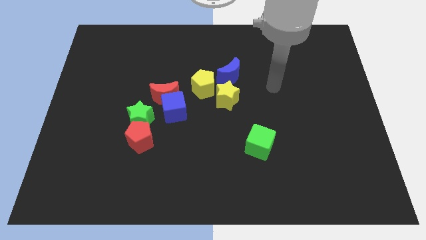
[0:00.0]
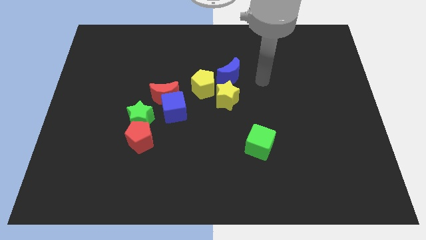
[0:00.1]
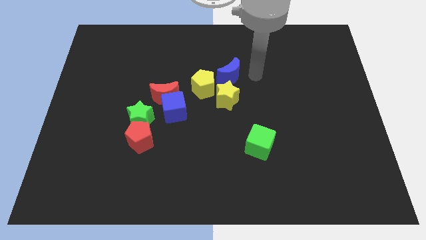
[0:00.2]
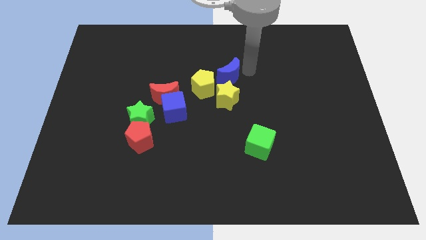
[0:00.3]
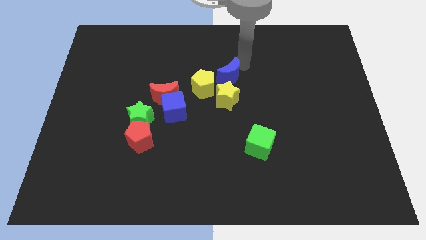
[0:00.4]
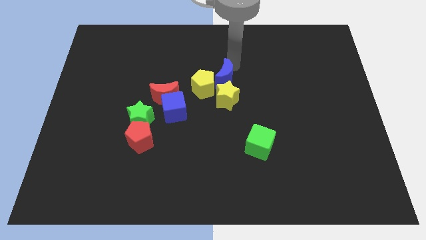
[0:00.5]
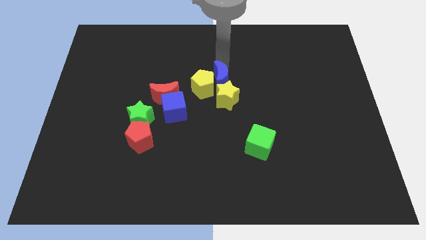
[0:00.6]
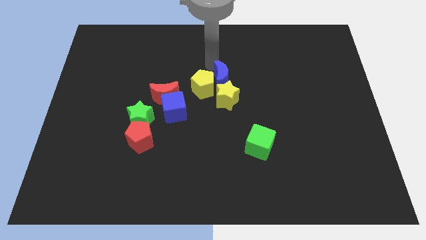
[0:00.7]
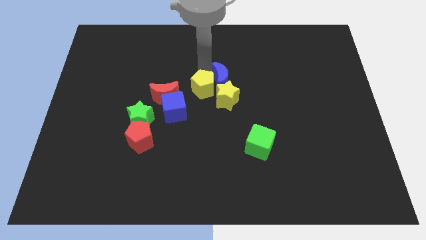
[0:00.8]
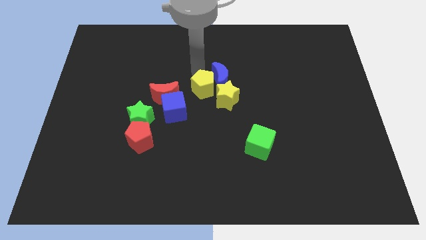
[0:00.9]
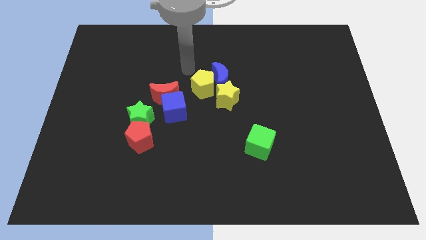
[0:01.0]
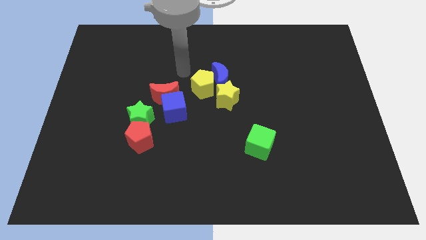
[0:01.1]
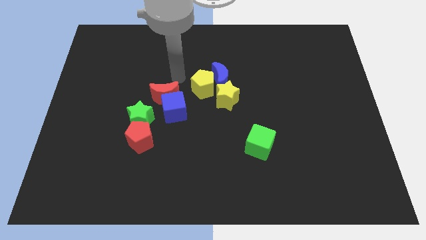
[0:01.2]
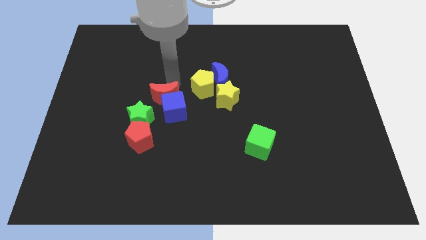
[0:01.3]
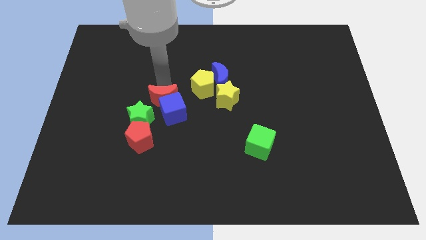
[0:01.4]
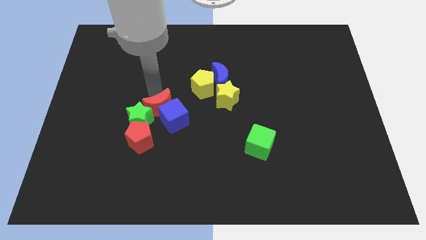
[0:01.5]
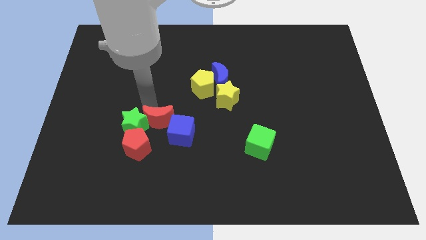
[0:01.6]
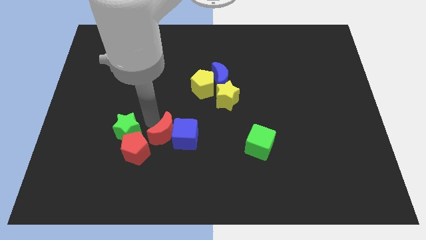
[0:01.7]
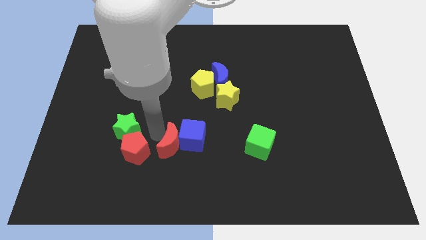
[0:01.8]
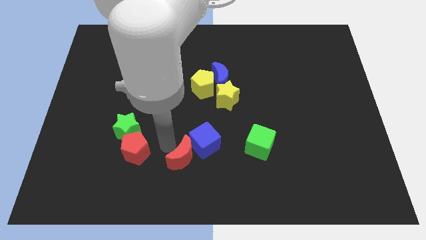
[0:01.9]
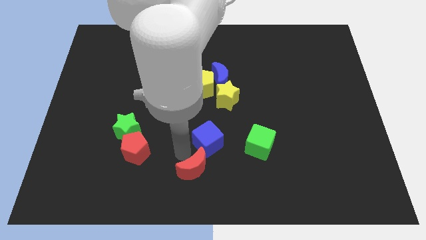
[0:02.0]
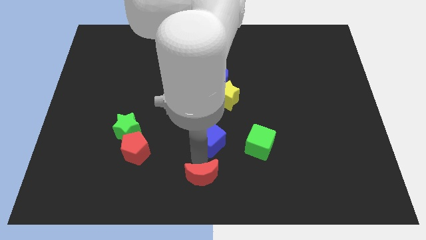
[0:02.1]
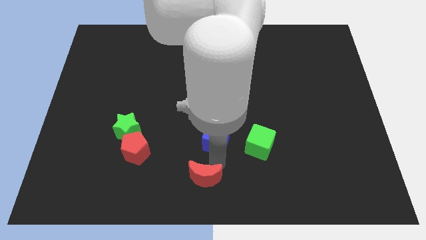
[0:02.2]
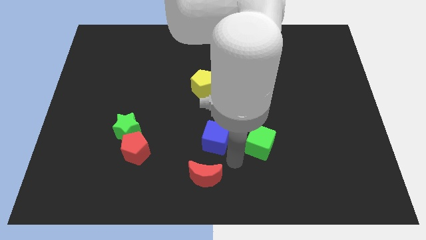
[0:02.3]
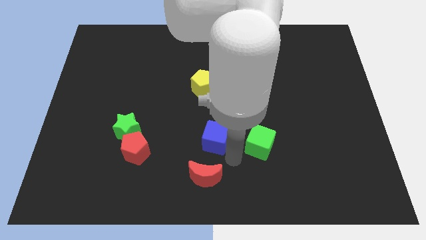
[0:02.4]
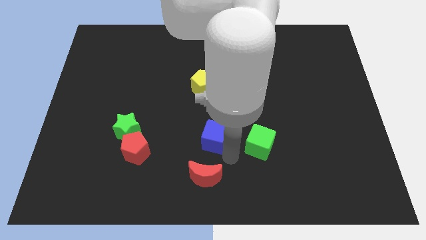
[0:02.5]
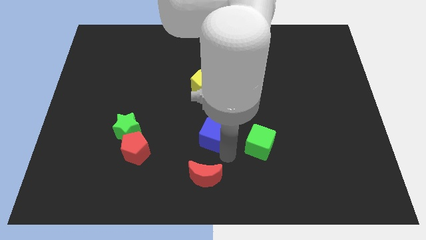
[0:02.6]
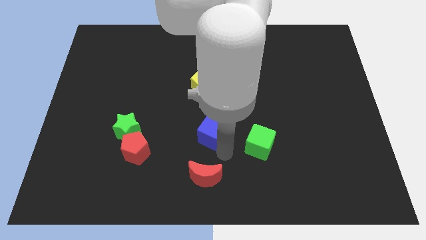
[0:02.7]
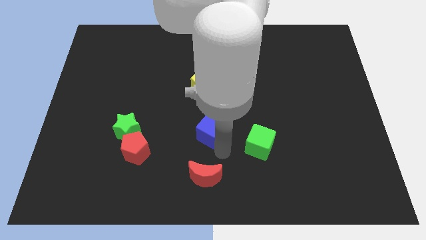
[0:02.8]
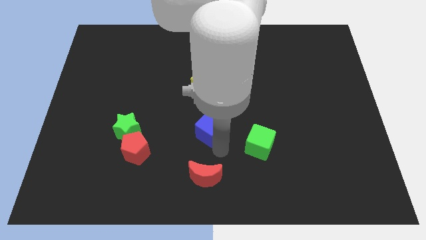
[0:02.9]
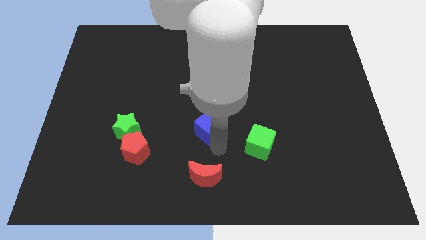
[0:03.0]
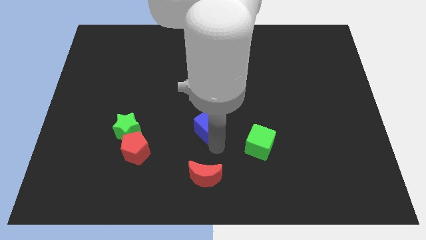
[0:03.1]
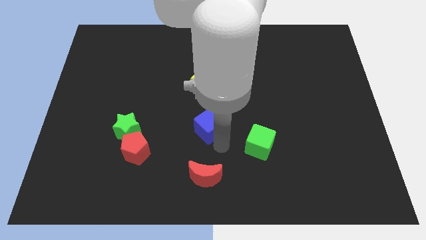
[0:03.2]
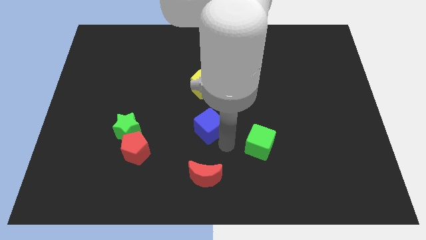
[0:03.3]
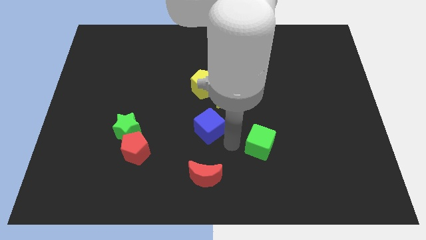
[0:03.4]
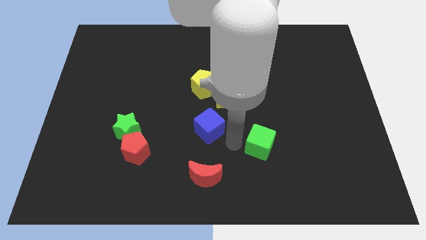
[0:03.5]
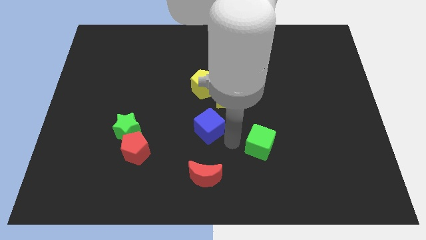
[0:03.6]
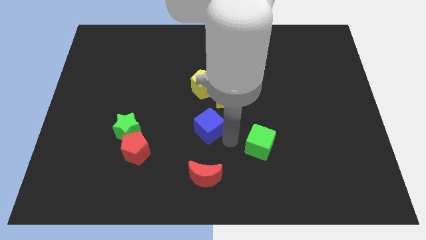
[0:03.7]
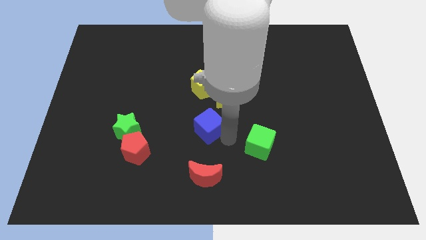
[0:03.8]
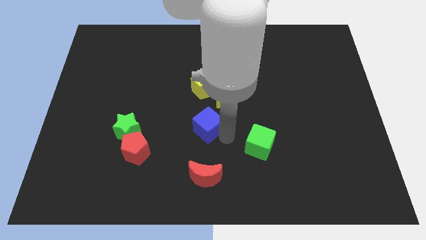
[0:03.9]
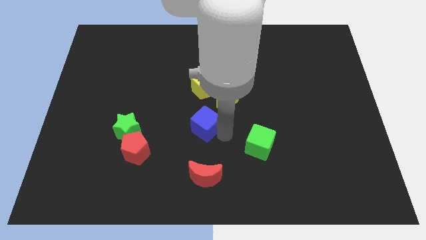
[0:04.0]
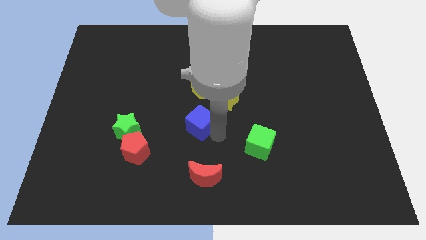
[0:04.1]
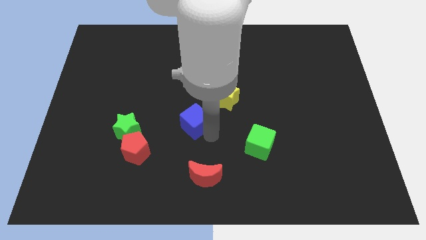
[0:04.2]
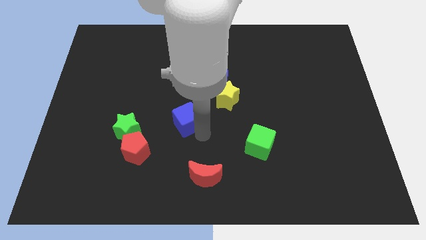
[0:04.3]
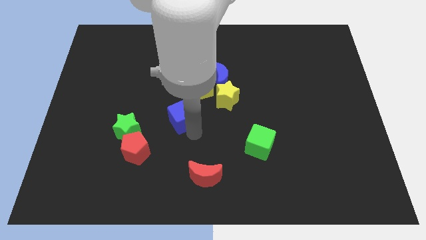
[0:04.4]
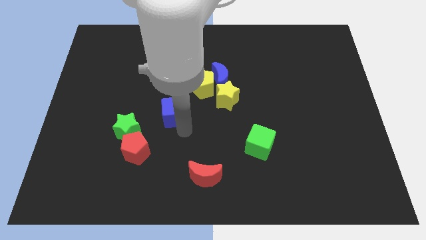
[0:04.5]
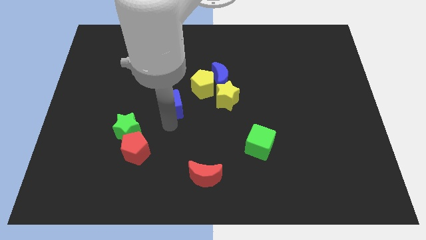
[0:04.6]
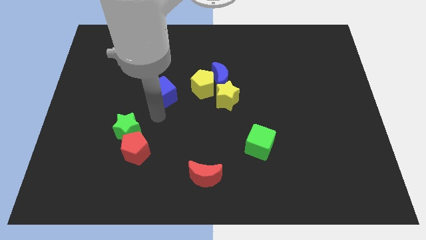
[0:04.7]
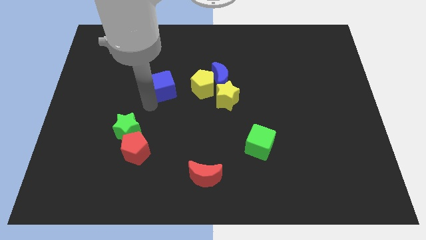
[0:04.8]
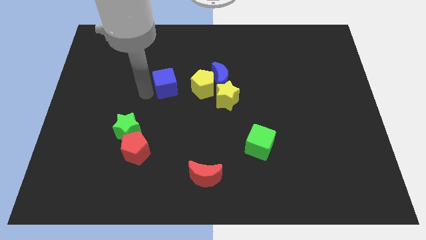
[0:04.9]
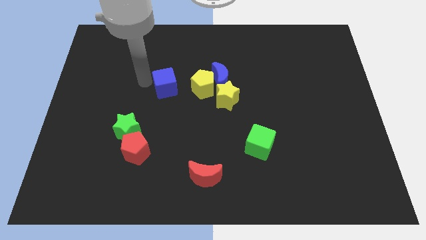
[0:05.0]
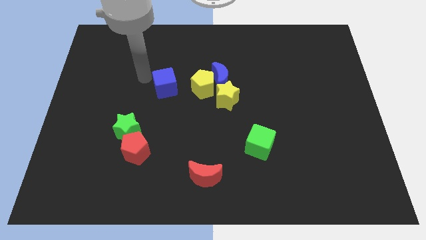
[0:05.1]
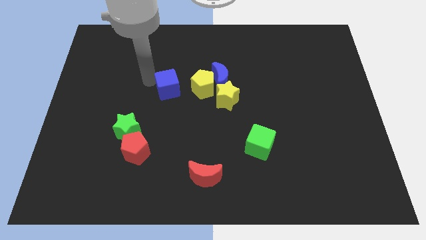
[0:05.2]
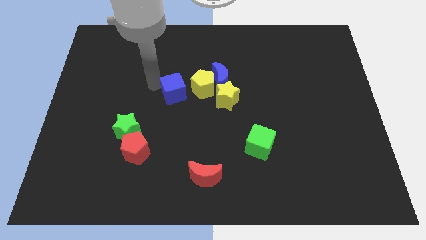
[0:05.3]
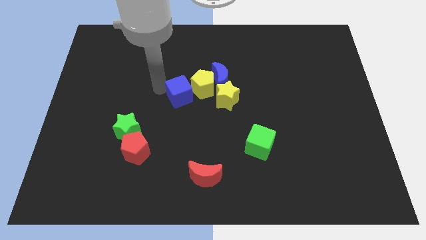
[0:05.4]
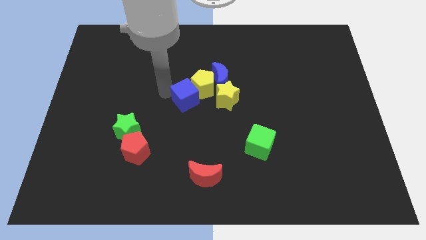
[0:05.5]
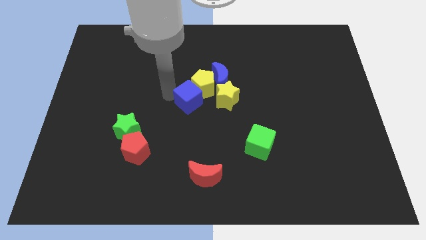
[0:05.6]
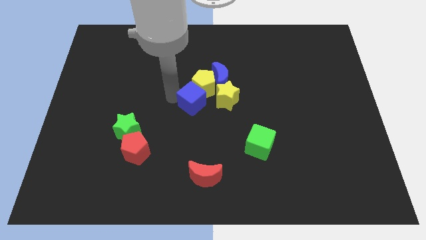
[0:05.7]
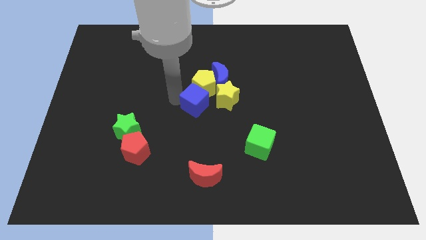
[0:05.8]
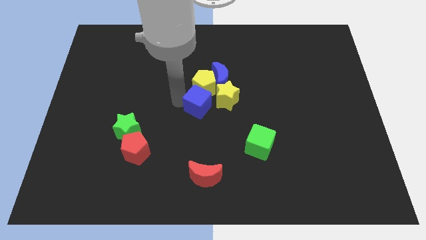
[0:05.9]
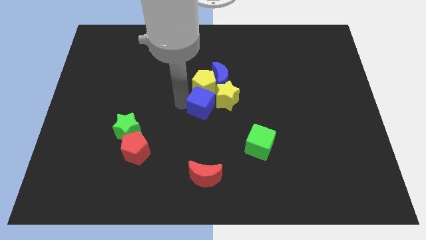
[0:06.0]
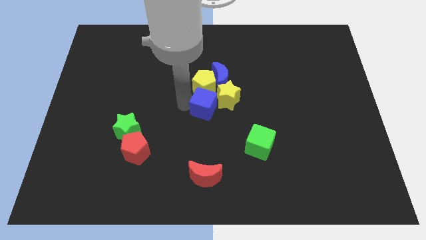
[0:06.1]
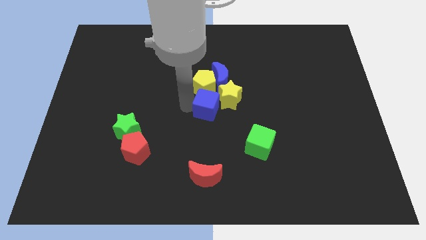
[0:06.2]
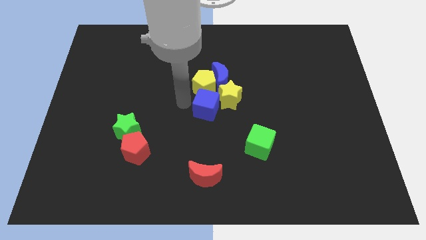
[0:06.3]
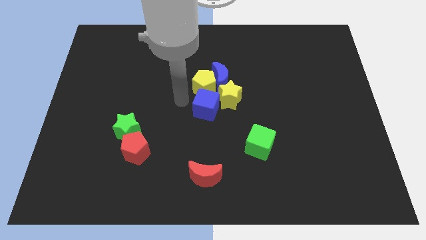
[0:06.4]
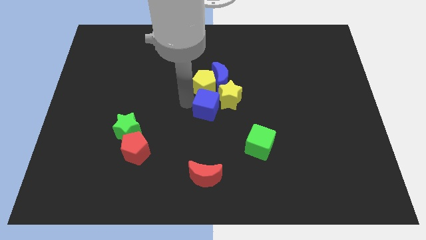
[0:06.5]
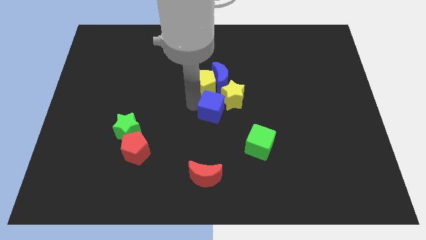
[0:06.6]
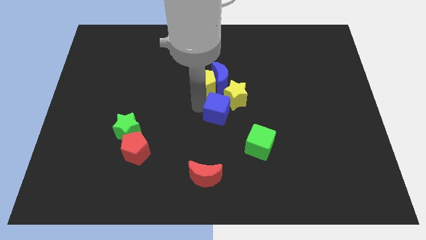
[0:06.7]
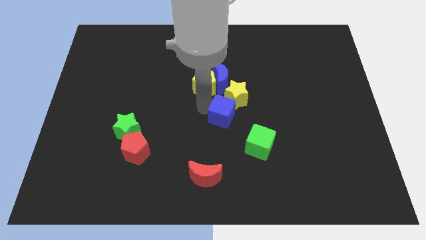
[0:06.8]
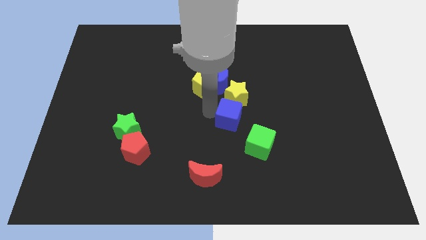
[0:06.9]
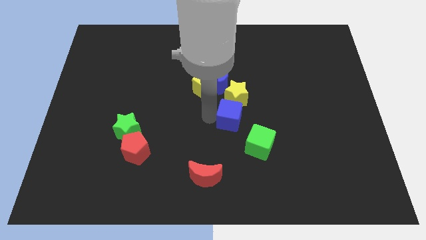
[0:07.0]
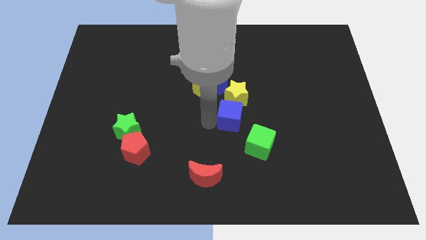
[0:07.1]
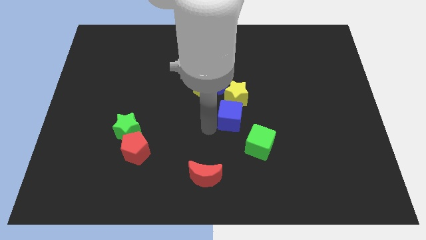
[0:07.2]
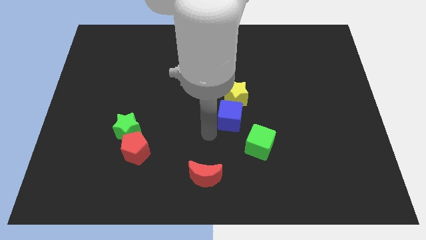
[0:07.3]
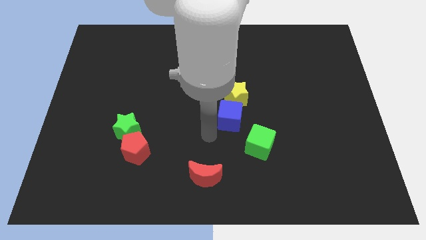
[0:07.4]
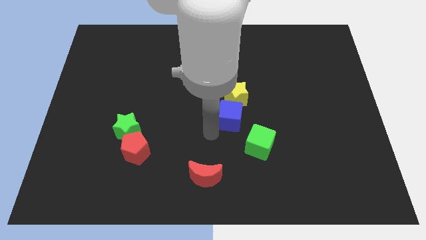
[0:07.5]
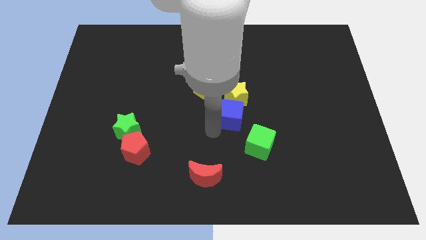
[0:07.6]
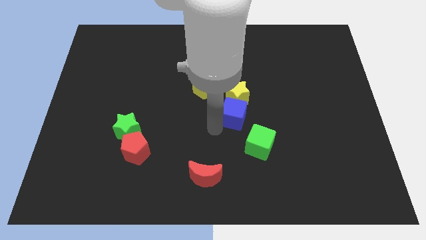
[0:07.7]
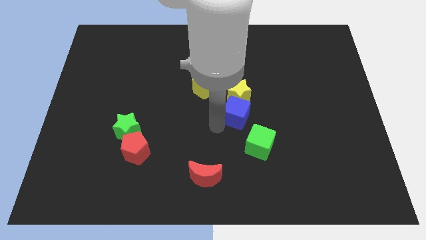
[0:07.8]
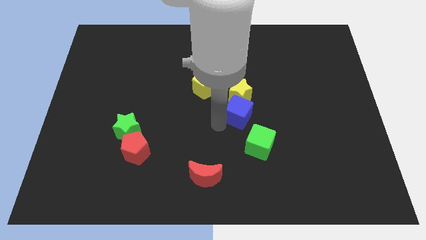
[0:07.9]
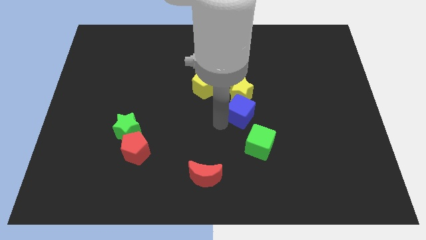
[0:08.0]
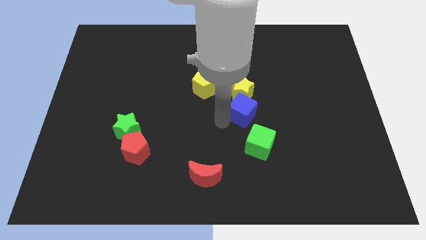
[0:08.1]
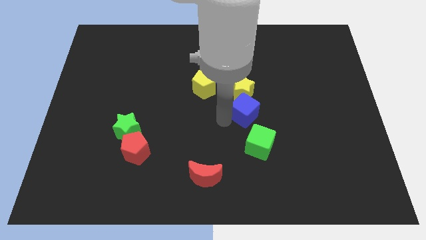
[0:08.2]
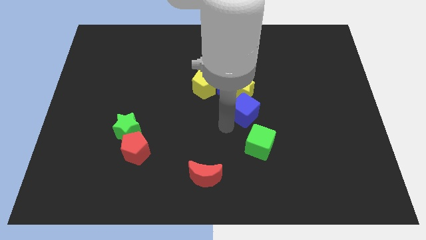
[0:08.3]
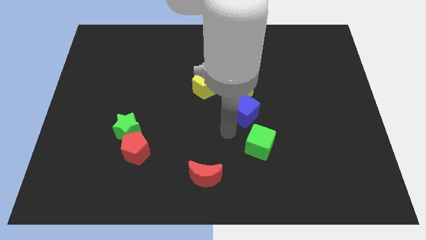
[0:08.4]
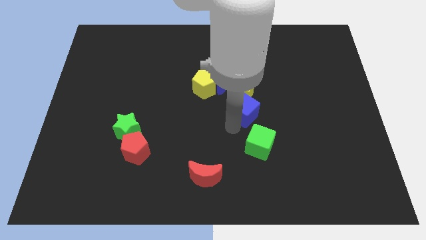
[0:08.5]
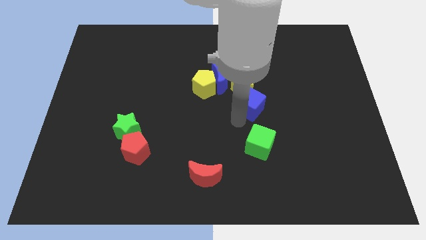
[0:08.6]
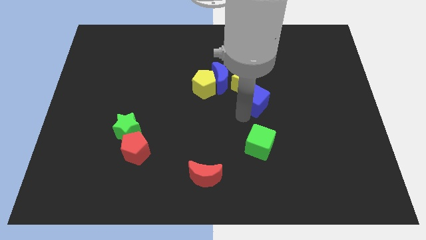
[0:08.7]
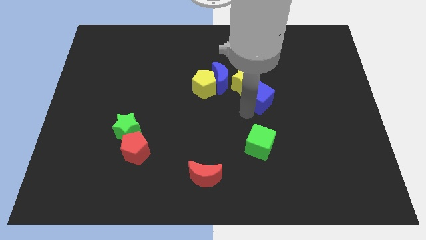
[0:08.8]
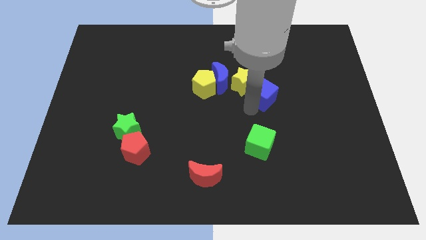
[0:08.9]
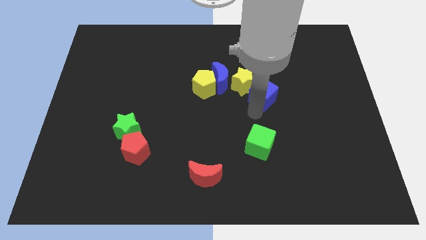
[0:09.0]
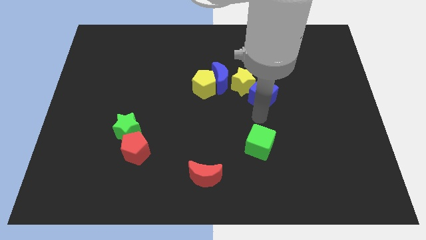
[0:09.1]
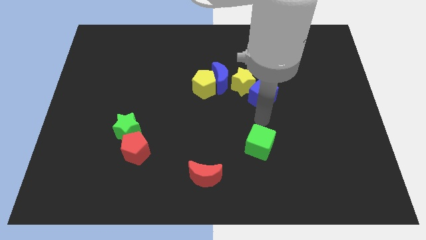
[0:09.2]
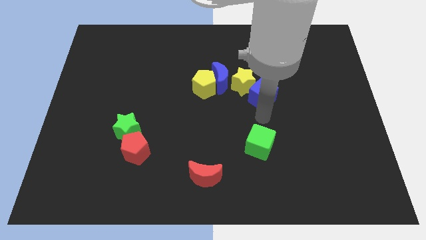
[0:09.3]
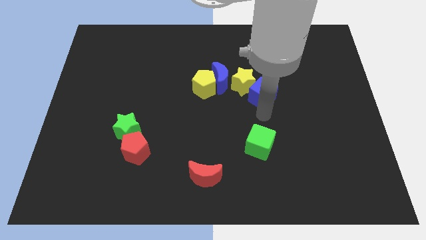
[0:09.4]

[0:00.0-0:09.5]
push the blue cube to the right side of the blue moon
